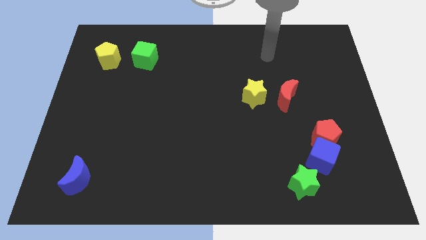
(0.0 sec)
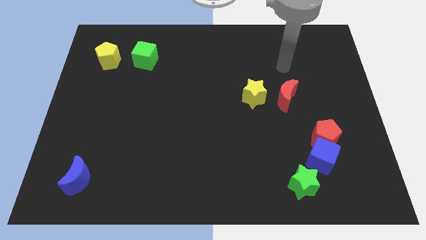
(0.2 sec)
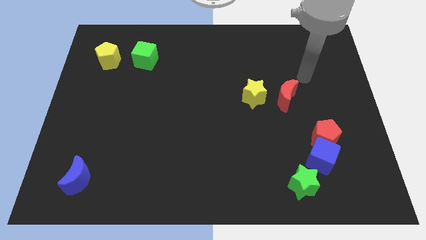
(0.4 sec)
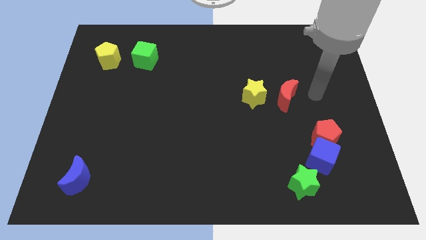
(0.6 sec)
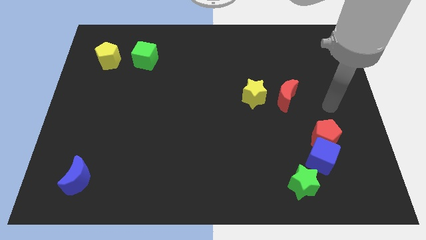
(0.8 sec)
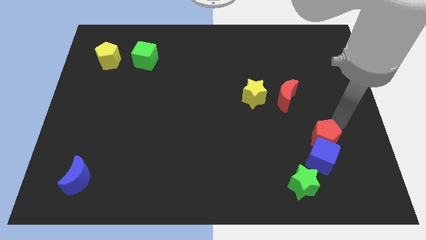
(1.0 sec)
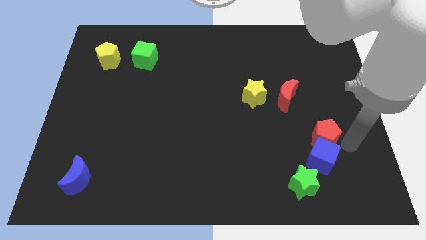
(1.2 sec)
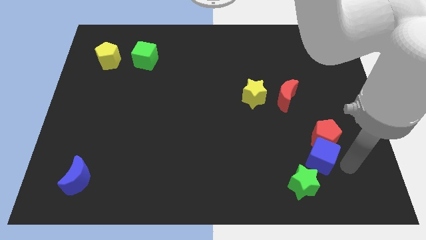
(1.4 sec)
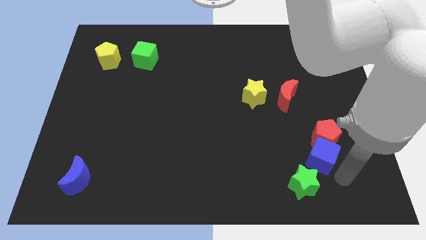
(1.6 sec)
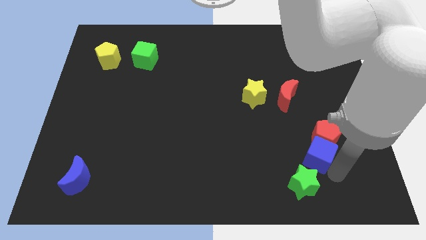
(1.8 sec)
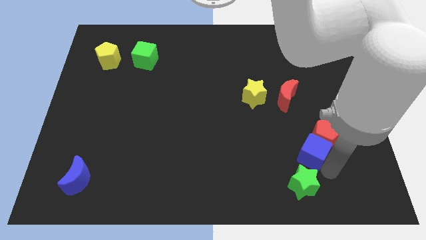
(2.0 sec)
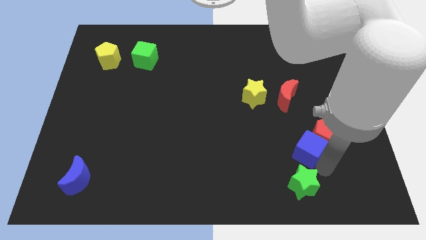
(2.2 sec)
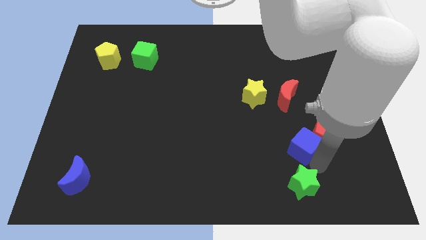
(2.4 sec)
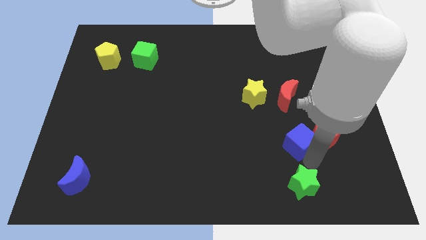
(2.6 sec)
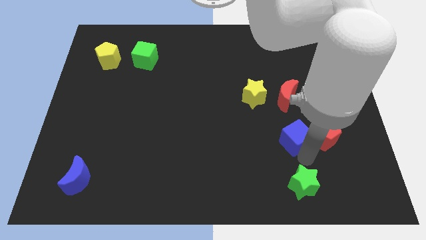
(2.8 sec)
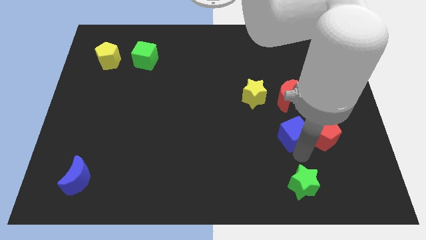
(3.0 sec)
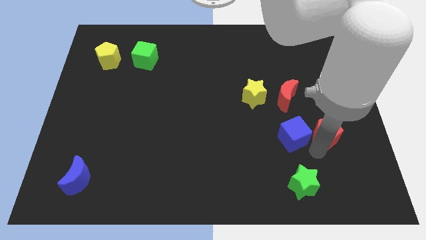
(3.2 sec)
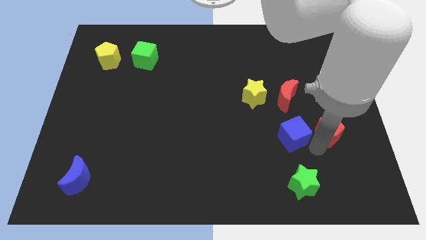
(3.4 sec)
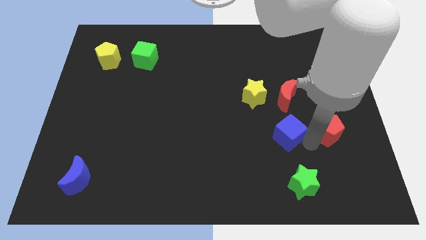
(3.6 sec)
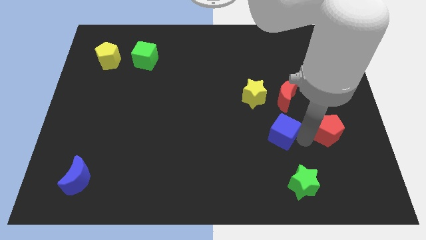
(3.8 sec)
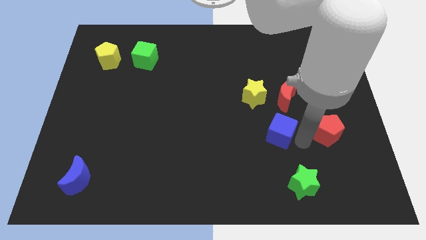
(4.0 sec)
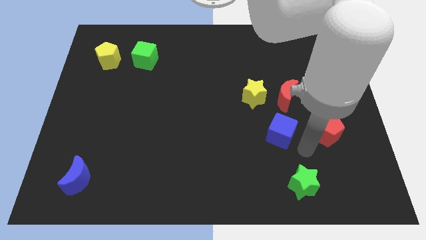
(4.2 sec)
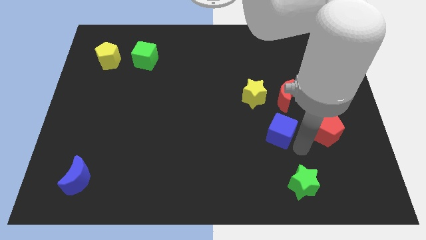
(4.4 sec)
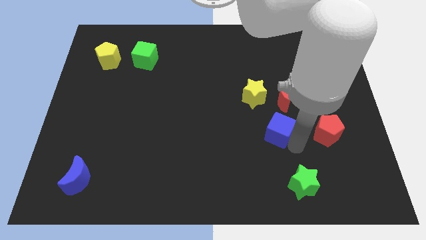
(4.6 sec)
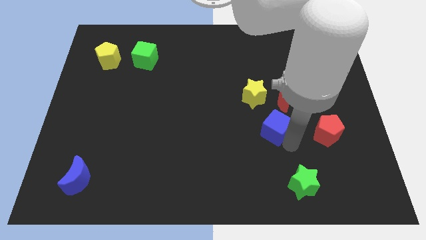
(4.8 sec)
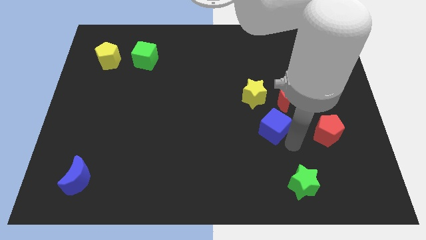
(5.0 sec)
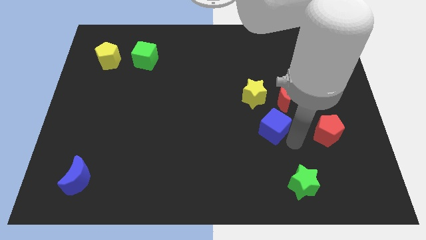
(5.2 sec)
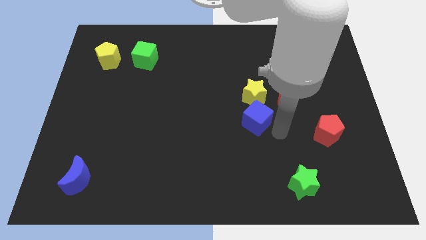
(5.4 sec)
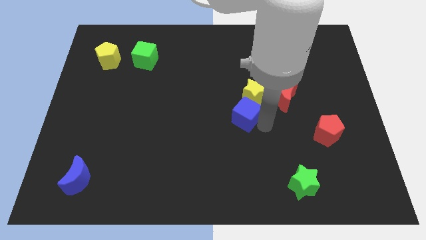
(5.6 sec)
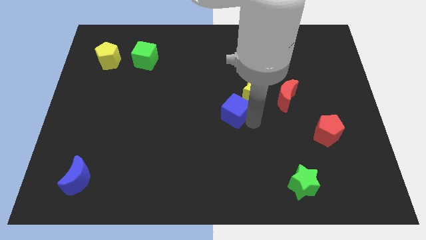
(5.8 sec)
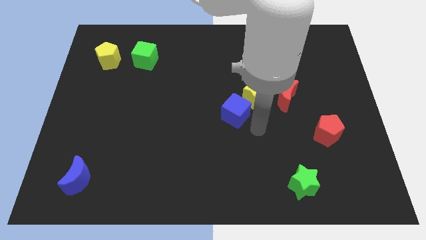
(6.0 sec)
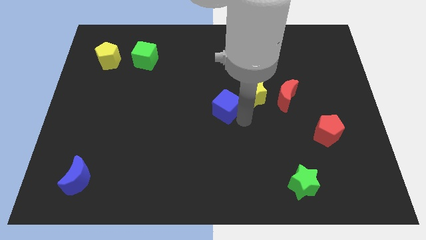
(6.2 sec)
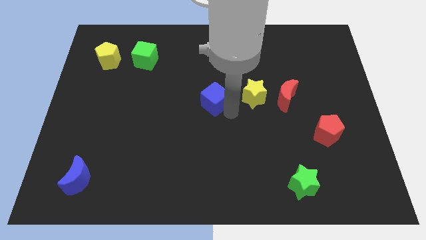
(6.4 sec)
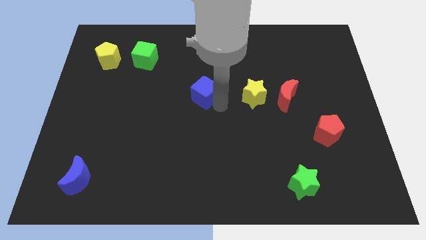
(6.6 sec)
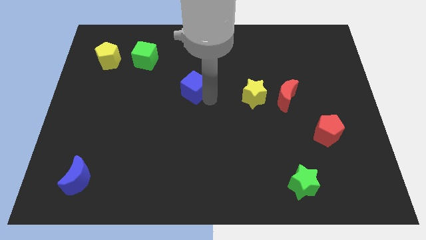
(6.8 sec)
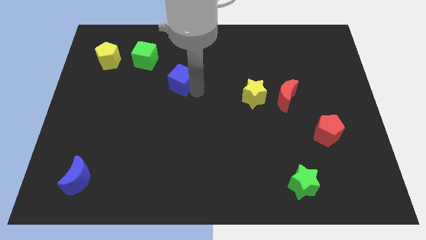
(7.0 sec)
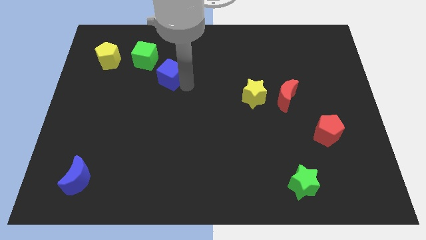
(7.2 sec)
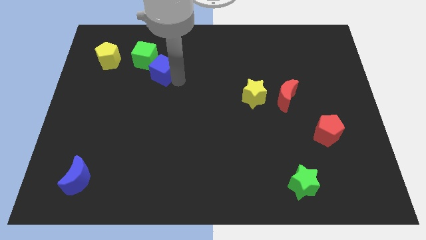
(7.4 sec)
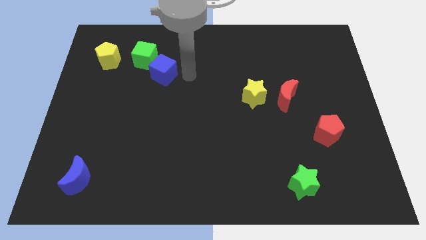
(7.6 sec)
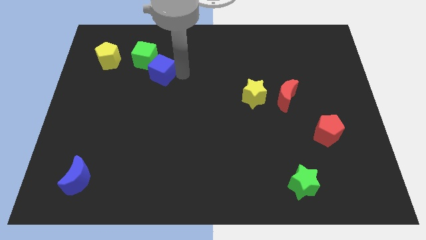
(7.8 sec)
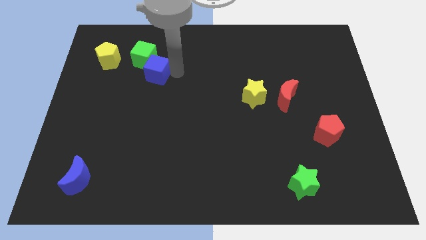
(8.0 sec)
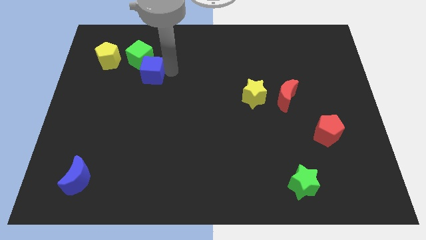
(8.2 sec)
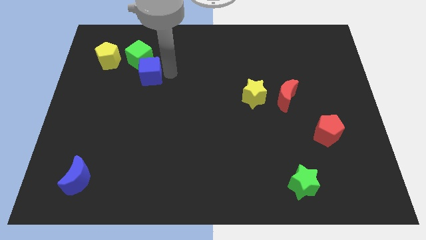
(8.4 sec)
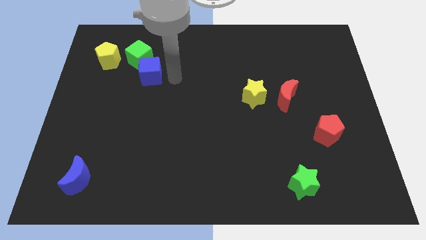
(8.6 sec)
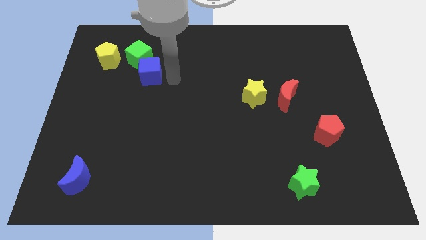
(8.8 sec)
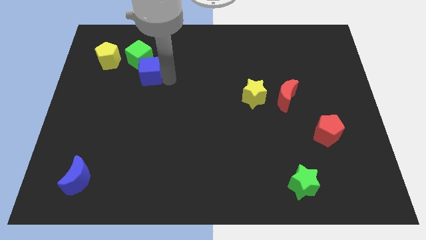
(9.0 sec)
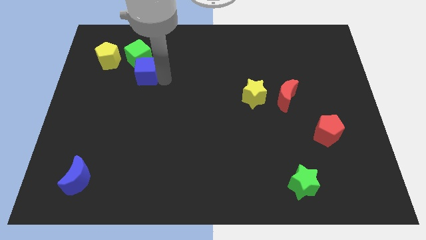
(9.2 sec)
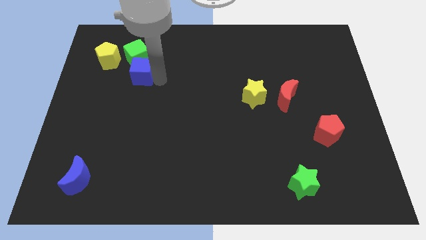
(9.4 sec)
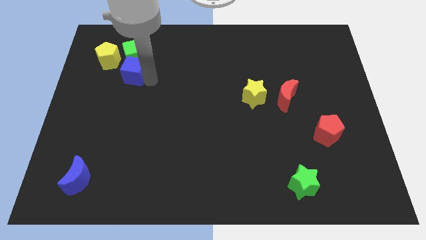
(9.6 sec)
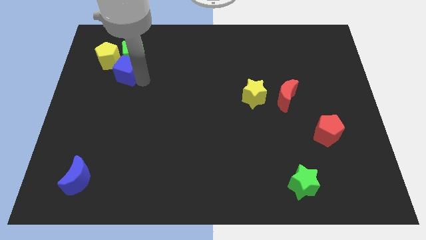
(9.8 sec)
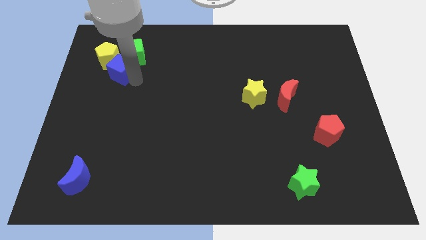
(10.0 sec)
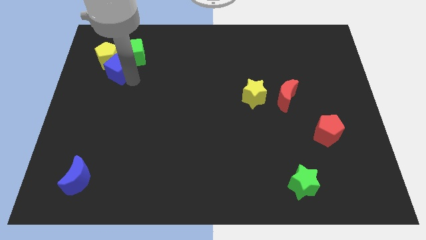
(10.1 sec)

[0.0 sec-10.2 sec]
put the blue cube to the yellow pentagon

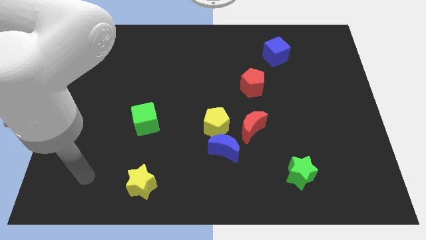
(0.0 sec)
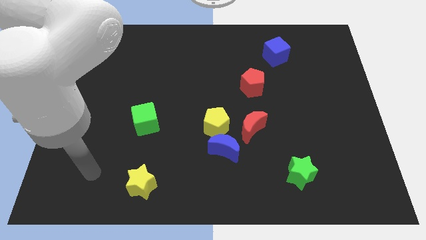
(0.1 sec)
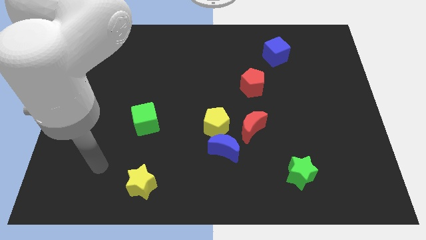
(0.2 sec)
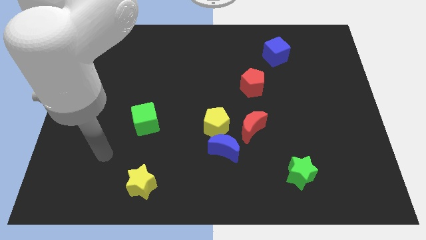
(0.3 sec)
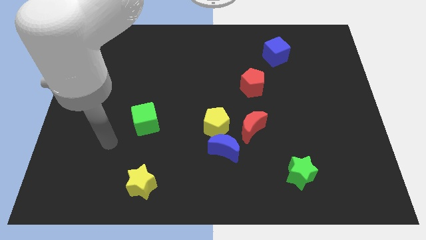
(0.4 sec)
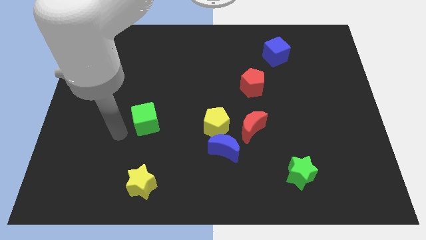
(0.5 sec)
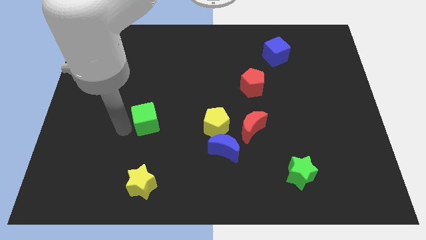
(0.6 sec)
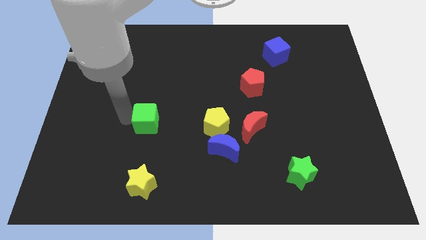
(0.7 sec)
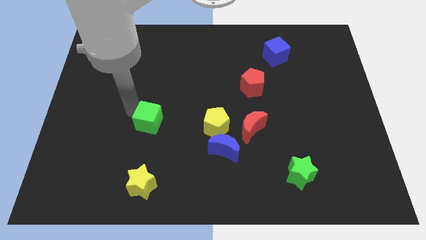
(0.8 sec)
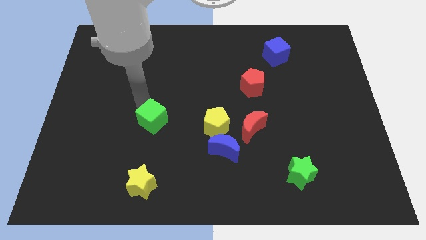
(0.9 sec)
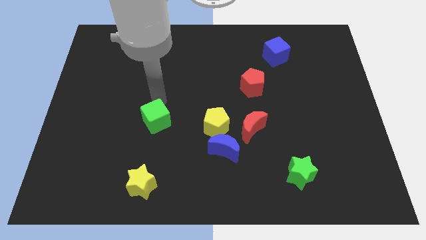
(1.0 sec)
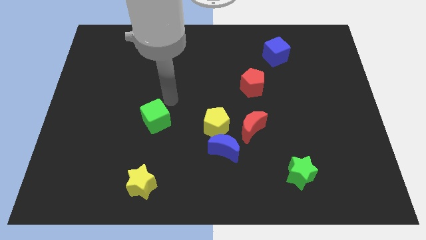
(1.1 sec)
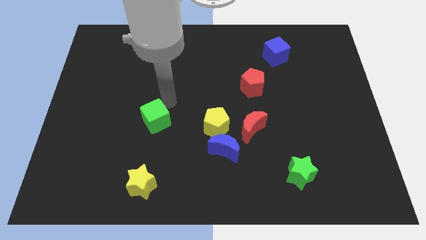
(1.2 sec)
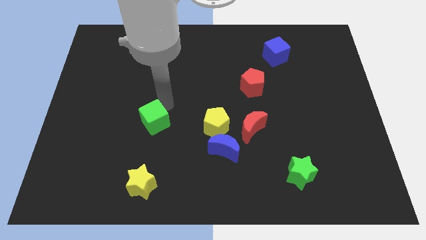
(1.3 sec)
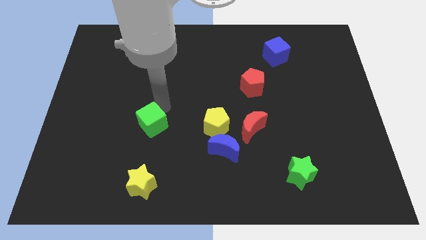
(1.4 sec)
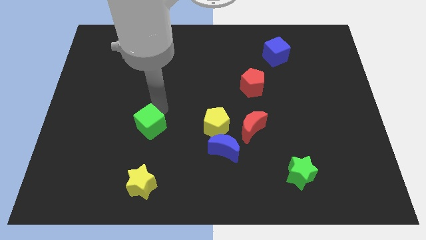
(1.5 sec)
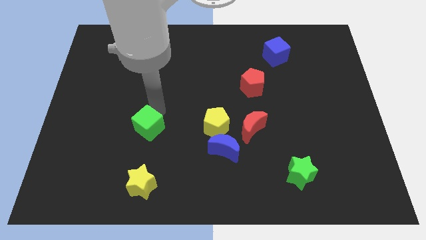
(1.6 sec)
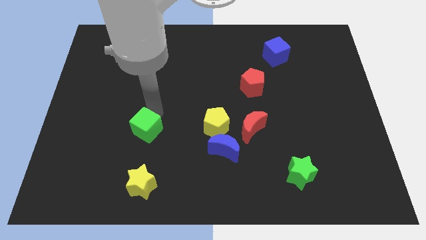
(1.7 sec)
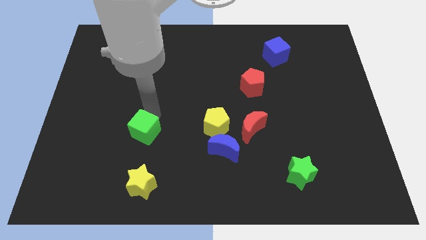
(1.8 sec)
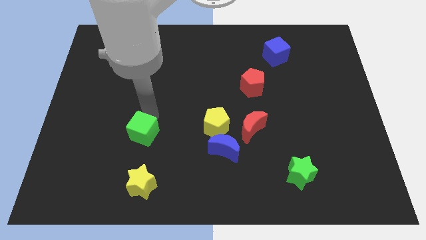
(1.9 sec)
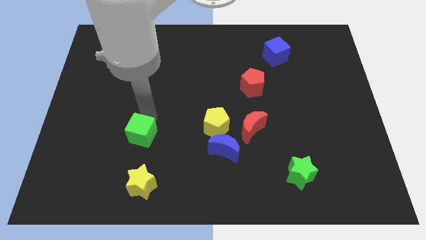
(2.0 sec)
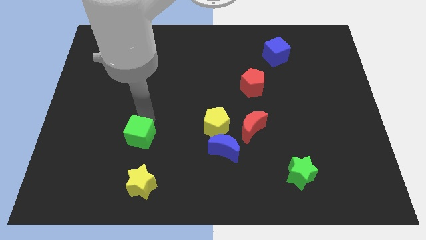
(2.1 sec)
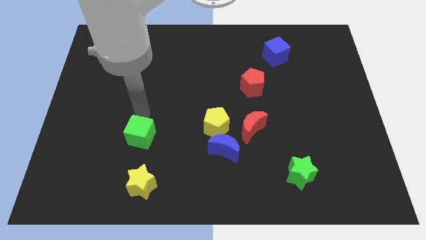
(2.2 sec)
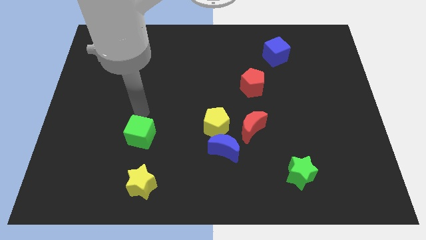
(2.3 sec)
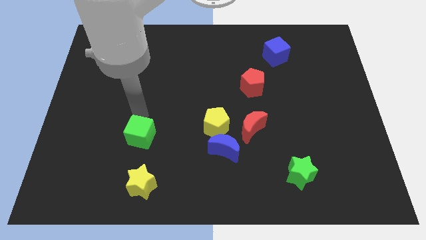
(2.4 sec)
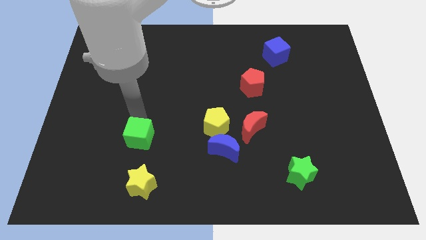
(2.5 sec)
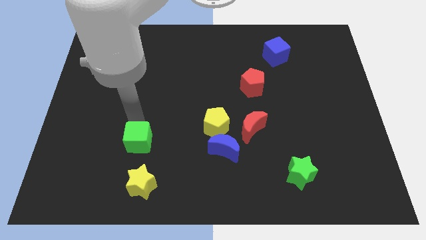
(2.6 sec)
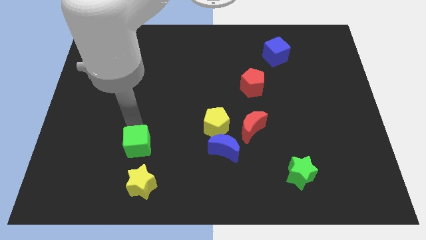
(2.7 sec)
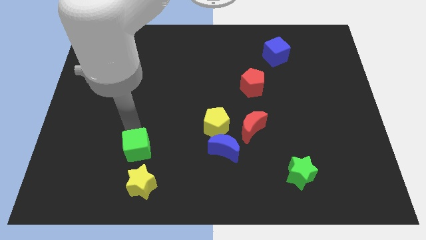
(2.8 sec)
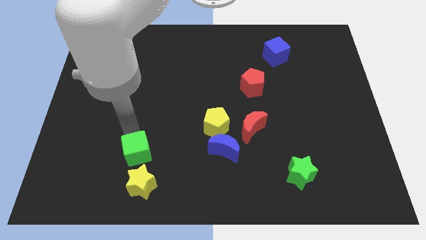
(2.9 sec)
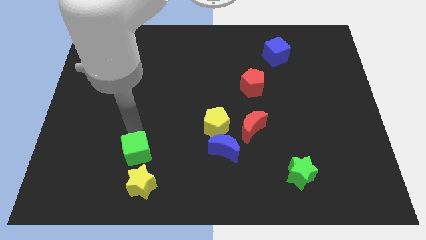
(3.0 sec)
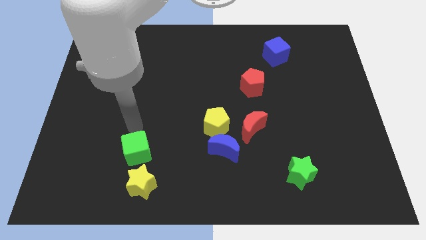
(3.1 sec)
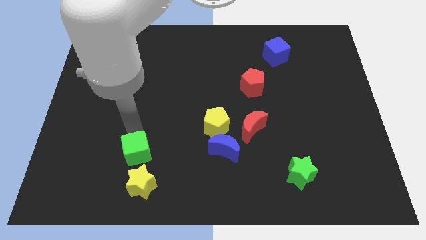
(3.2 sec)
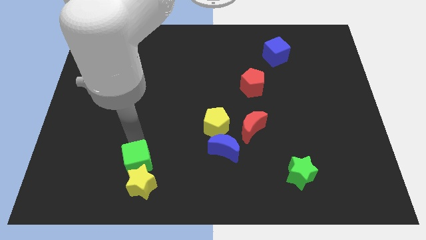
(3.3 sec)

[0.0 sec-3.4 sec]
slide the green cube close to the yellow star
